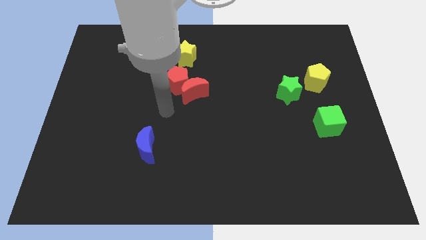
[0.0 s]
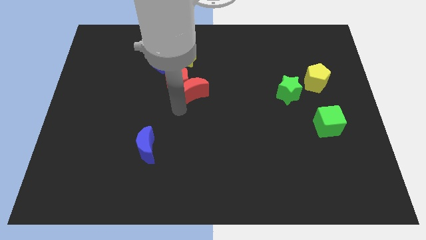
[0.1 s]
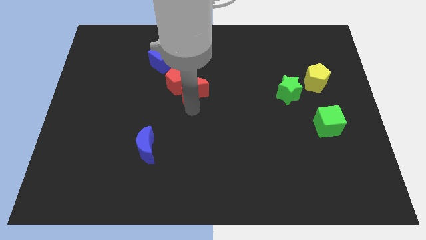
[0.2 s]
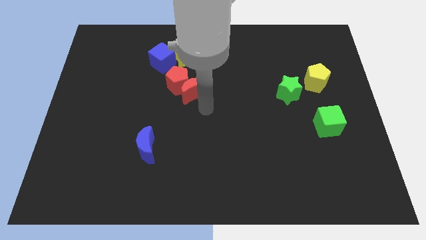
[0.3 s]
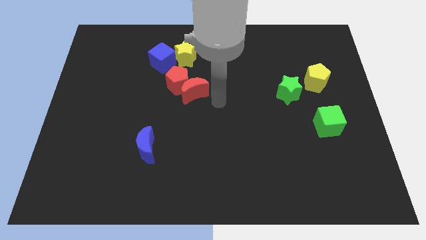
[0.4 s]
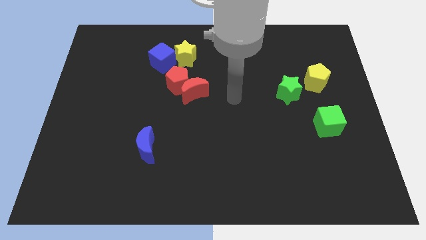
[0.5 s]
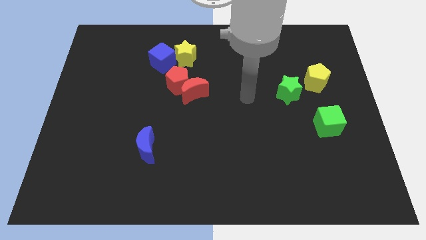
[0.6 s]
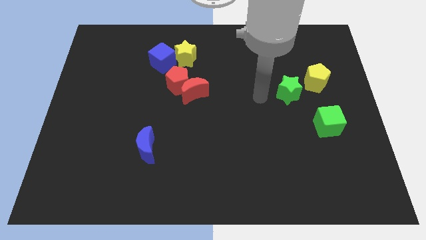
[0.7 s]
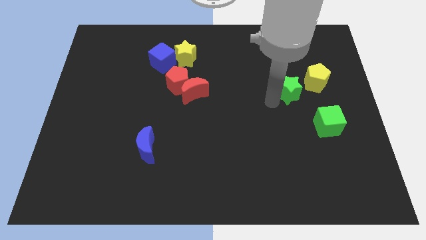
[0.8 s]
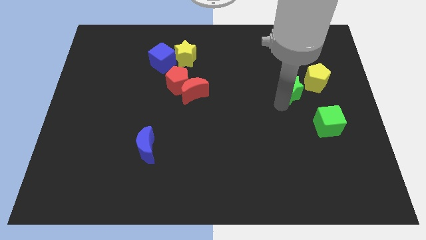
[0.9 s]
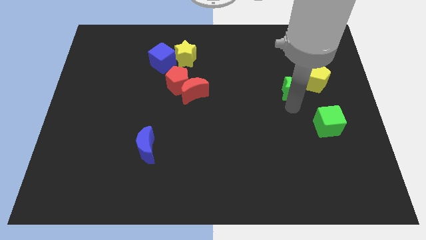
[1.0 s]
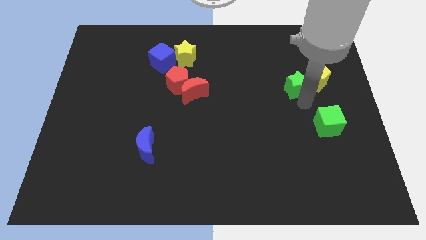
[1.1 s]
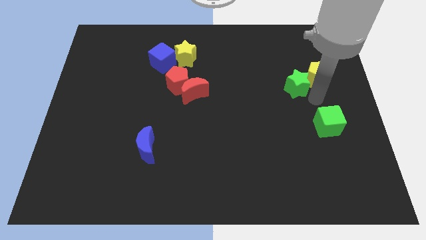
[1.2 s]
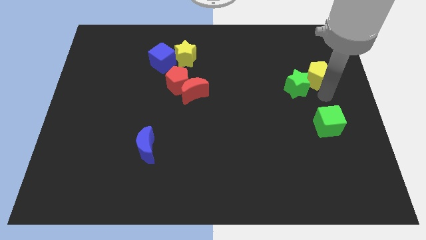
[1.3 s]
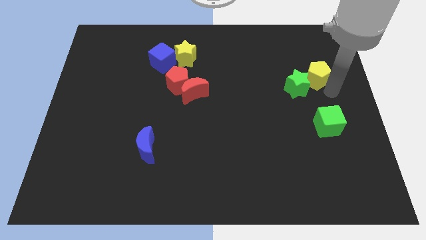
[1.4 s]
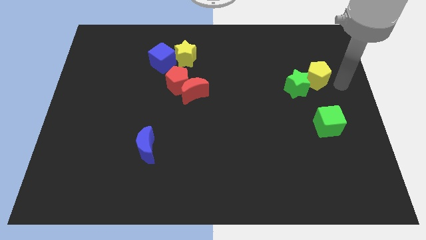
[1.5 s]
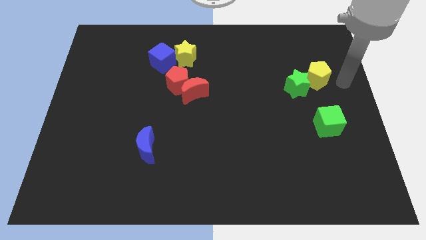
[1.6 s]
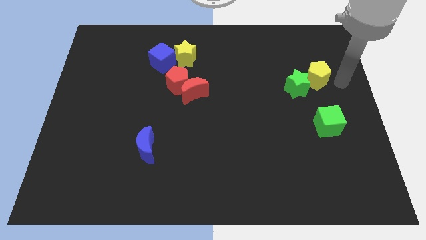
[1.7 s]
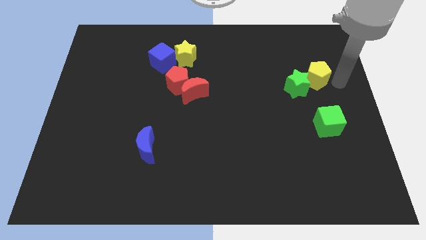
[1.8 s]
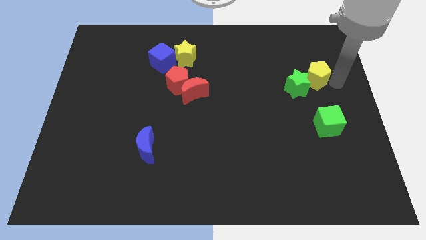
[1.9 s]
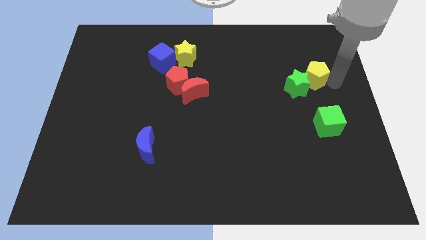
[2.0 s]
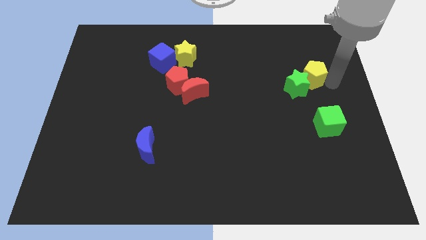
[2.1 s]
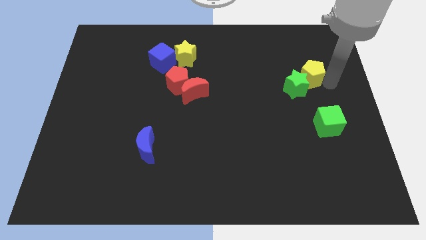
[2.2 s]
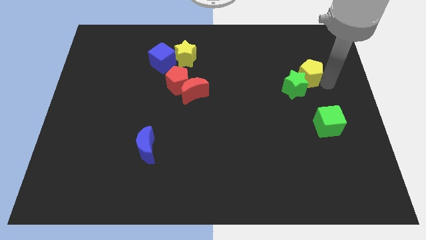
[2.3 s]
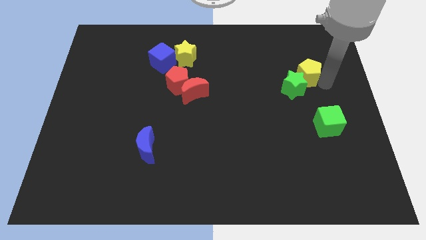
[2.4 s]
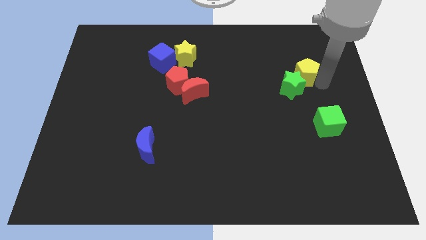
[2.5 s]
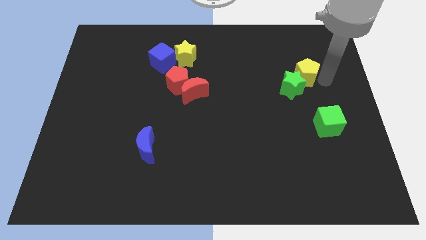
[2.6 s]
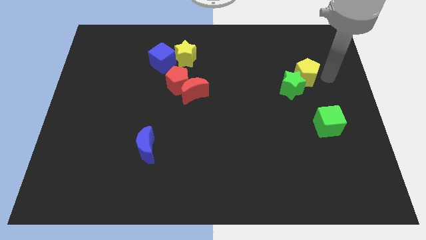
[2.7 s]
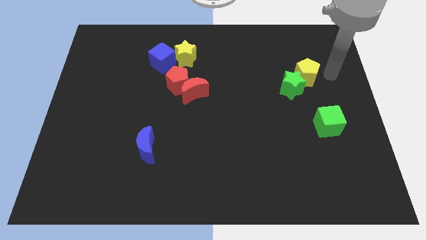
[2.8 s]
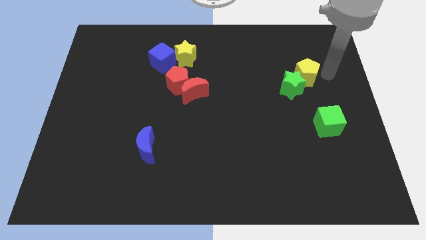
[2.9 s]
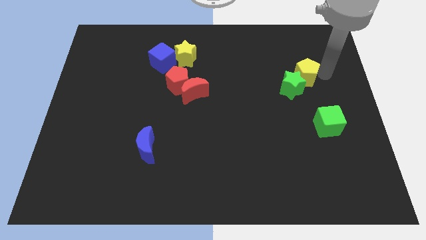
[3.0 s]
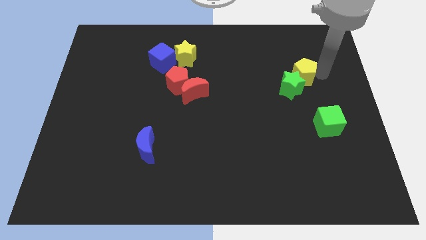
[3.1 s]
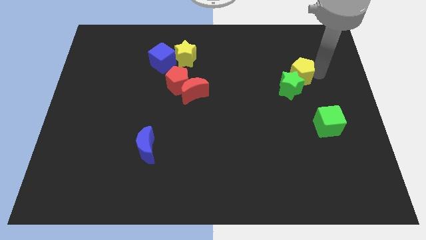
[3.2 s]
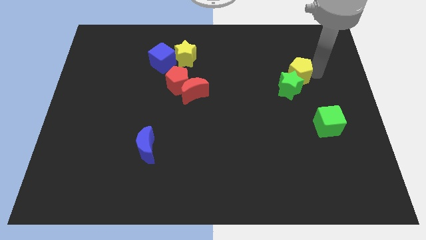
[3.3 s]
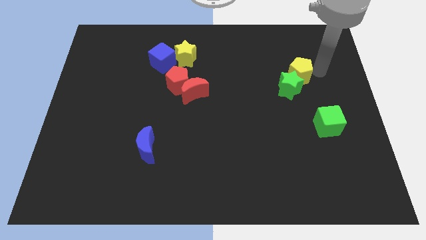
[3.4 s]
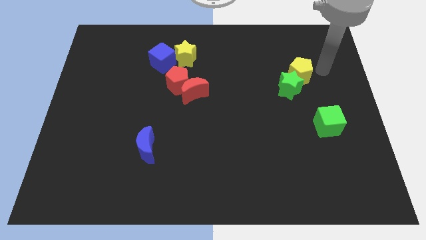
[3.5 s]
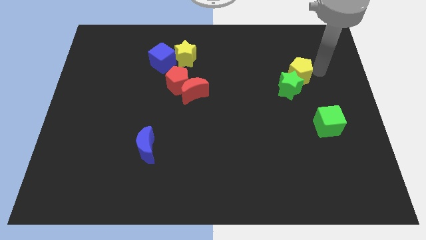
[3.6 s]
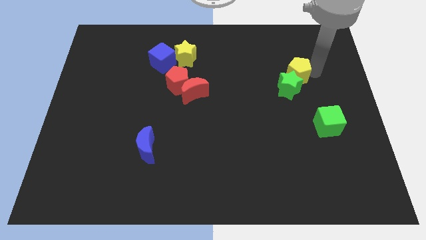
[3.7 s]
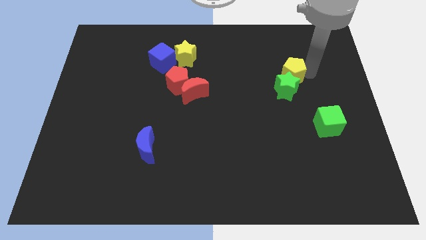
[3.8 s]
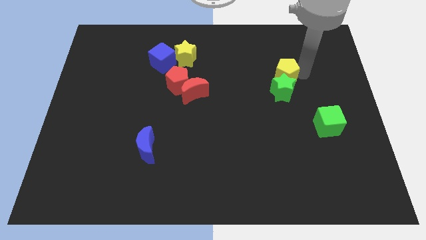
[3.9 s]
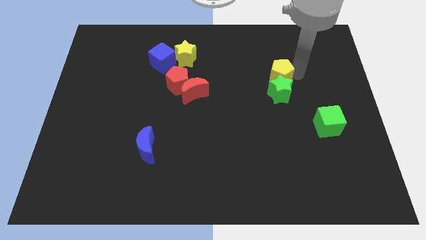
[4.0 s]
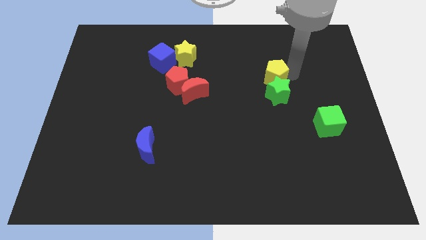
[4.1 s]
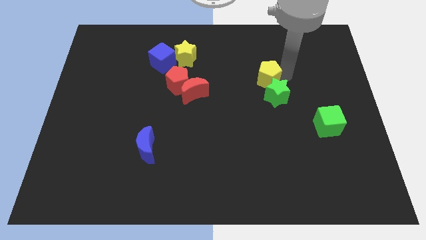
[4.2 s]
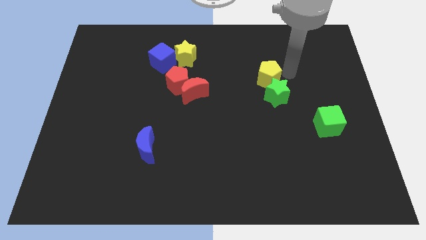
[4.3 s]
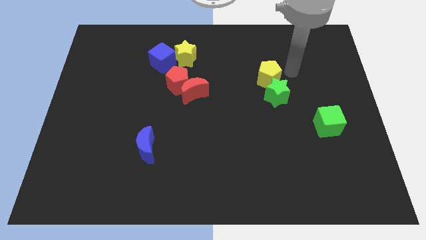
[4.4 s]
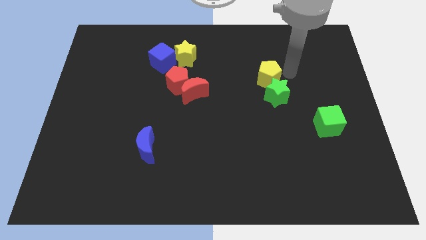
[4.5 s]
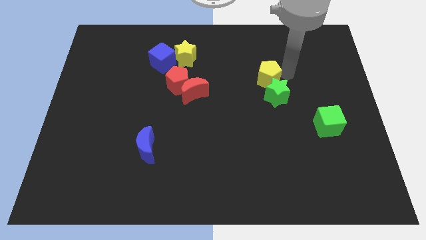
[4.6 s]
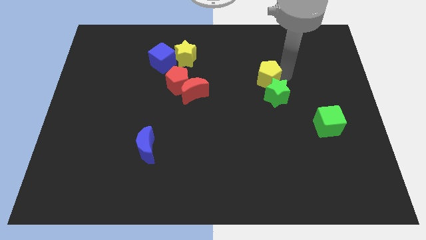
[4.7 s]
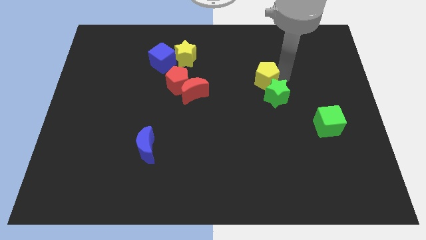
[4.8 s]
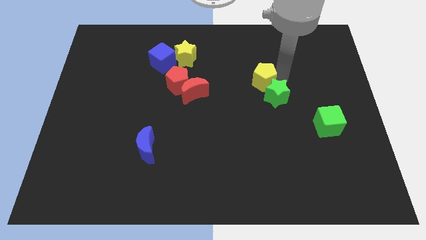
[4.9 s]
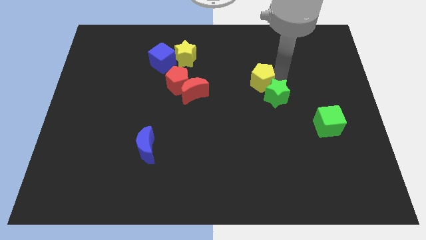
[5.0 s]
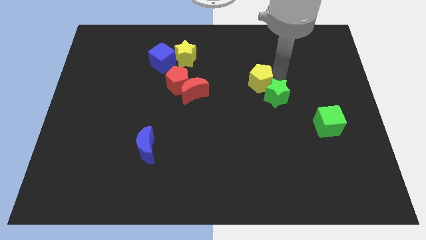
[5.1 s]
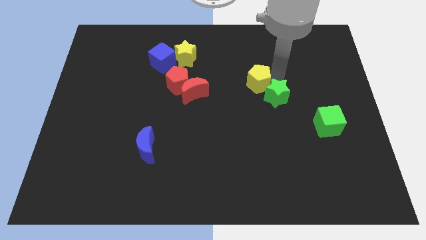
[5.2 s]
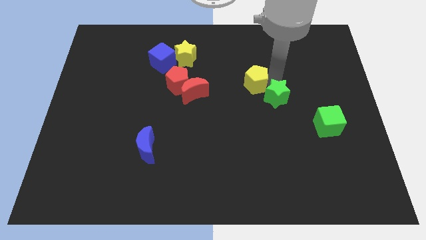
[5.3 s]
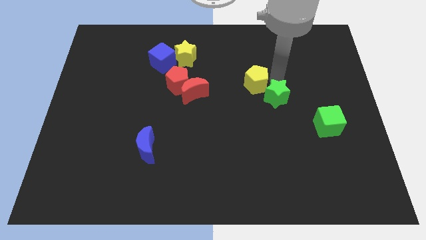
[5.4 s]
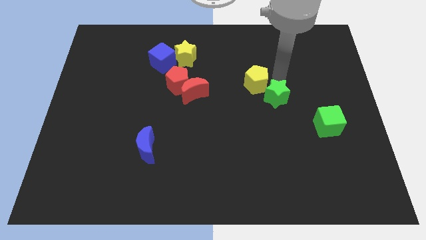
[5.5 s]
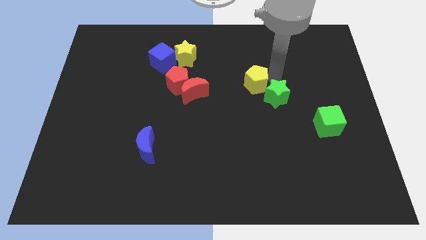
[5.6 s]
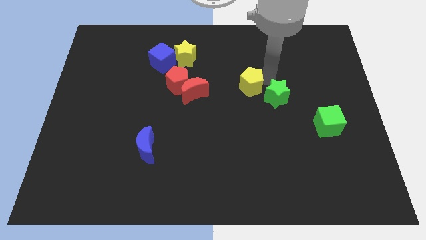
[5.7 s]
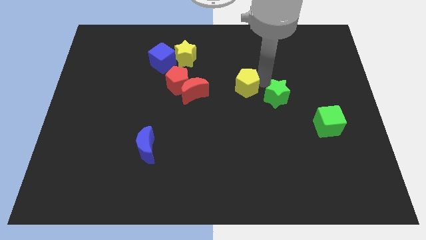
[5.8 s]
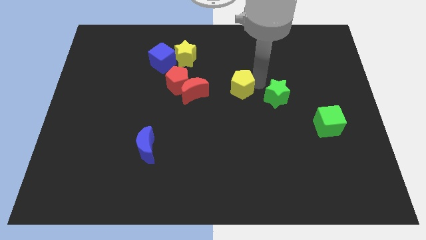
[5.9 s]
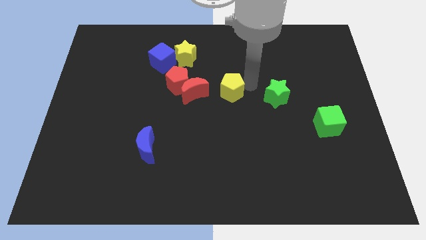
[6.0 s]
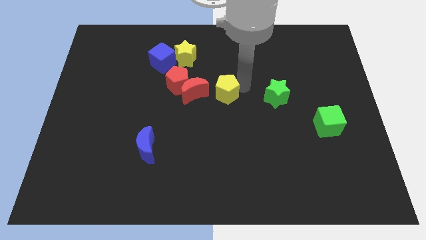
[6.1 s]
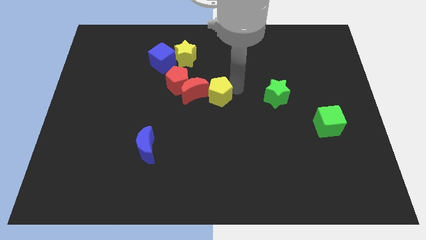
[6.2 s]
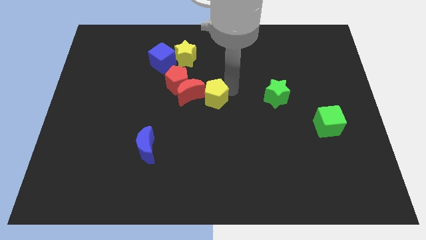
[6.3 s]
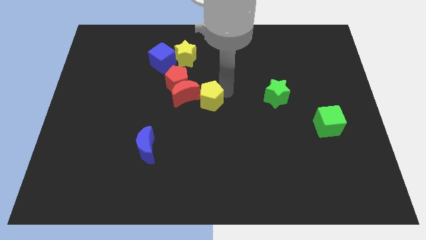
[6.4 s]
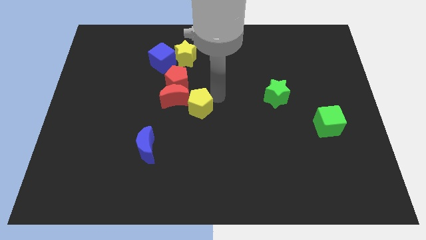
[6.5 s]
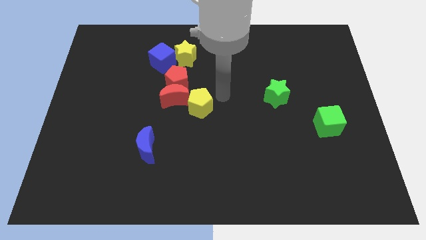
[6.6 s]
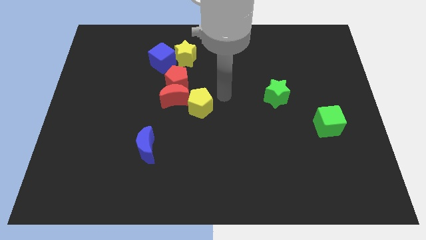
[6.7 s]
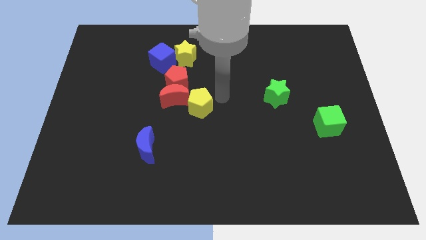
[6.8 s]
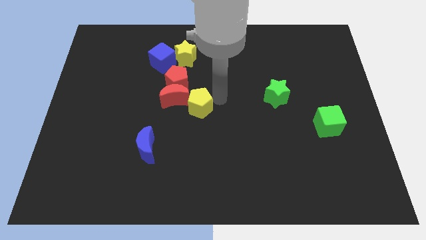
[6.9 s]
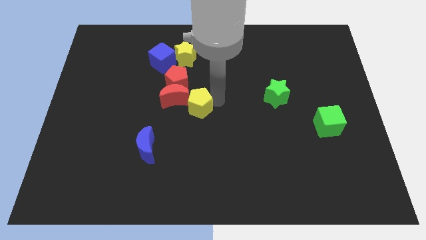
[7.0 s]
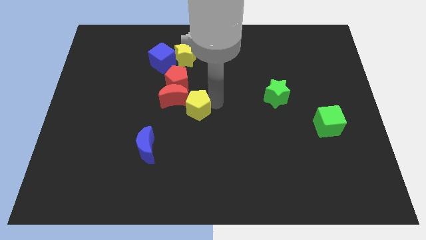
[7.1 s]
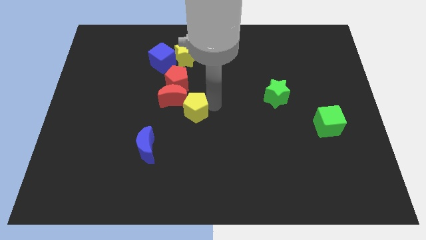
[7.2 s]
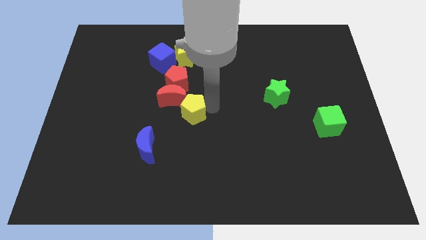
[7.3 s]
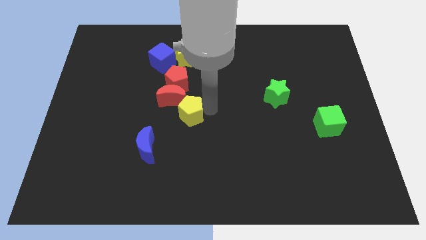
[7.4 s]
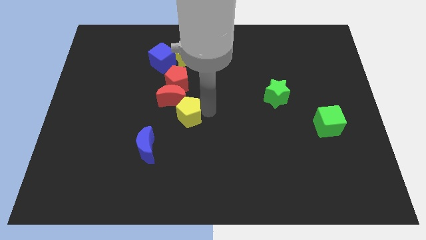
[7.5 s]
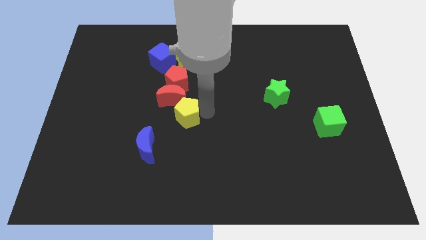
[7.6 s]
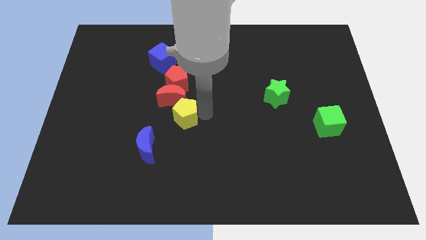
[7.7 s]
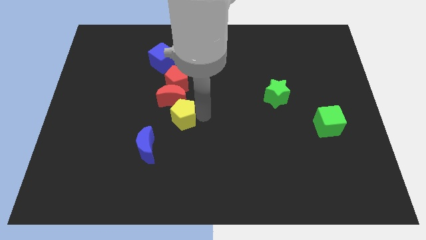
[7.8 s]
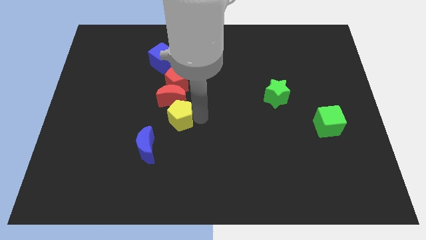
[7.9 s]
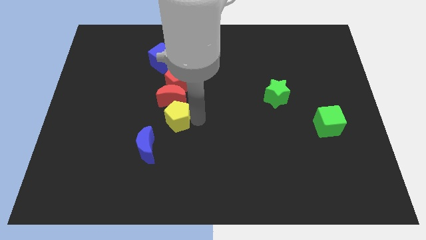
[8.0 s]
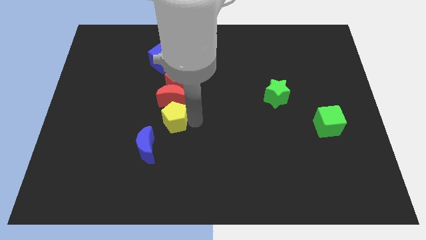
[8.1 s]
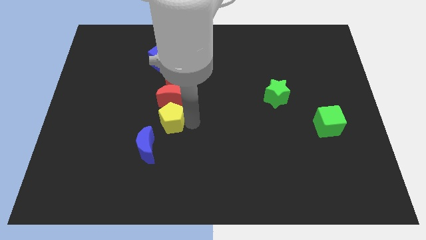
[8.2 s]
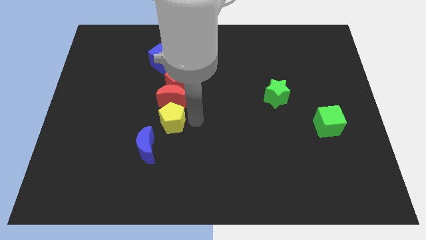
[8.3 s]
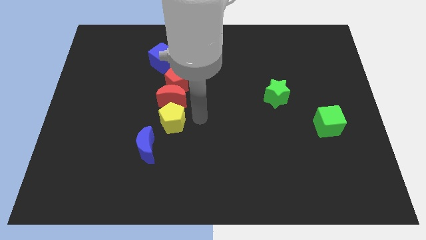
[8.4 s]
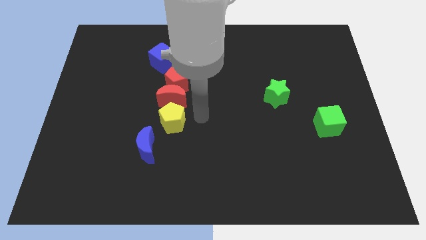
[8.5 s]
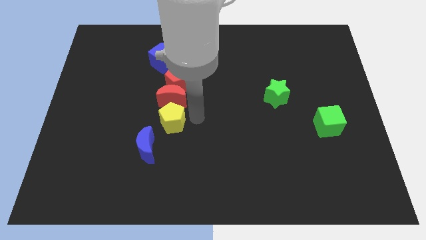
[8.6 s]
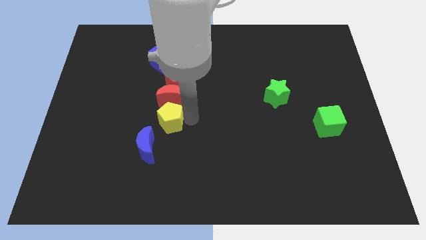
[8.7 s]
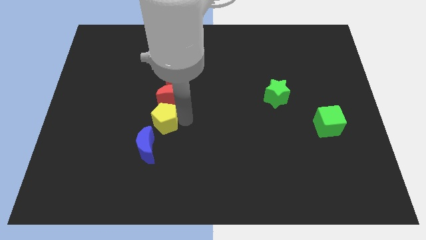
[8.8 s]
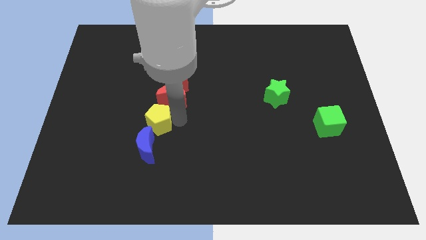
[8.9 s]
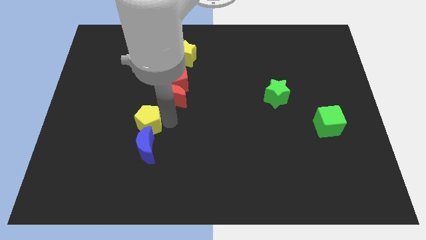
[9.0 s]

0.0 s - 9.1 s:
push the yellow pentagon to the top left of the blue moon
